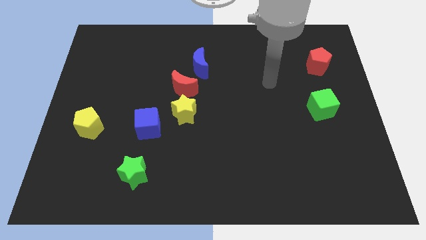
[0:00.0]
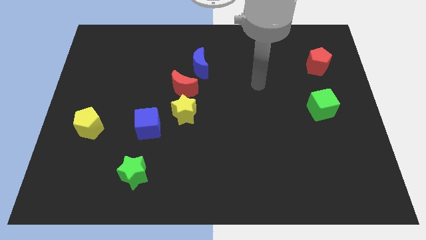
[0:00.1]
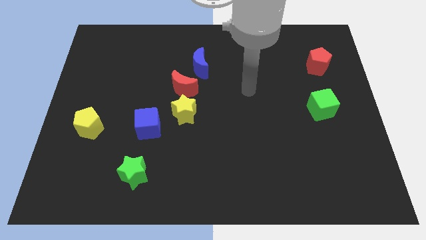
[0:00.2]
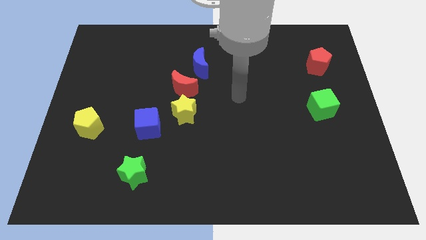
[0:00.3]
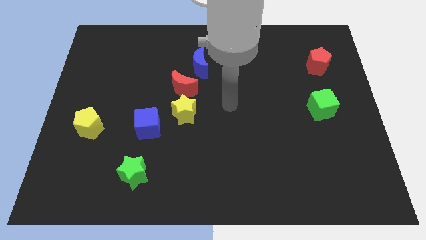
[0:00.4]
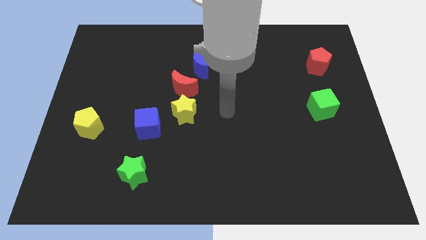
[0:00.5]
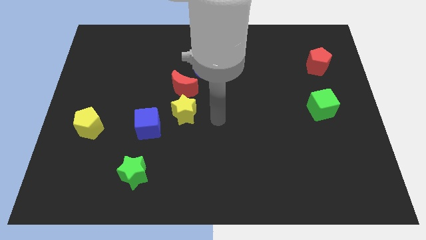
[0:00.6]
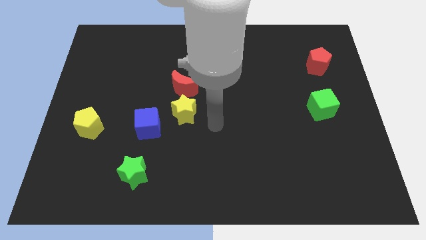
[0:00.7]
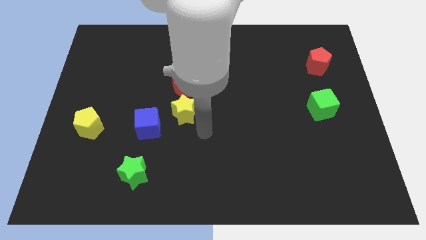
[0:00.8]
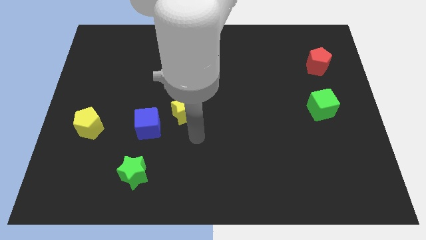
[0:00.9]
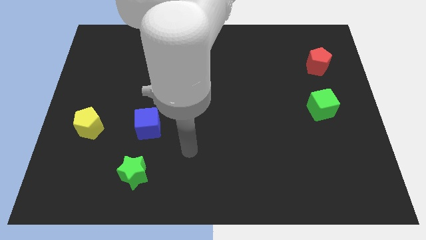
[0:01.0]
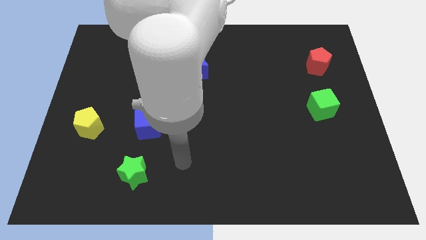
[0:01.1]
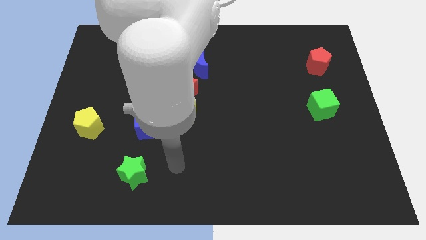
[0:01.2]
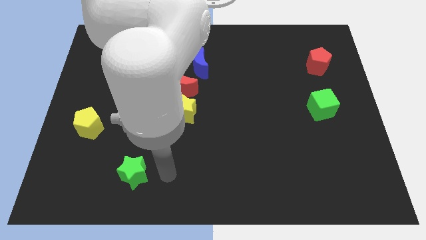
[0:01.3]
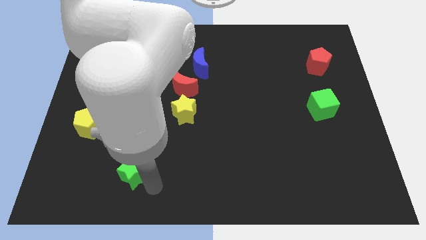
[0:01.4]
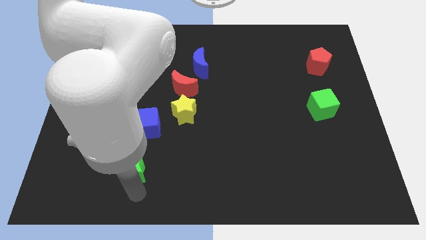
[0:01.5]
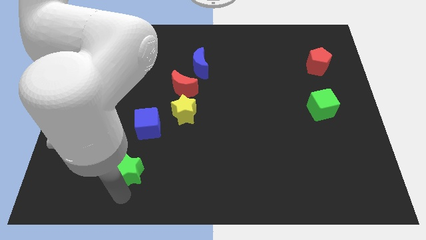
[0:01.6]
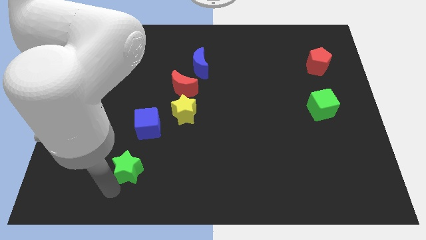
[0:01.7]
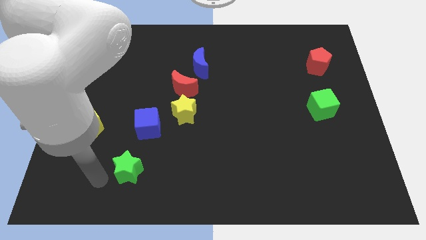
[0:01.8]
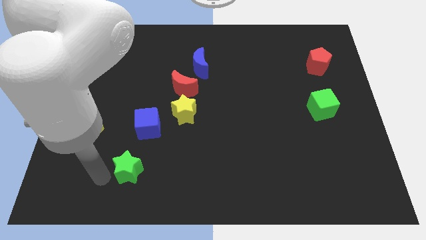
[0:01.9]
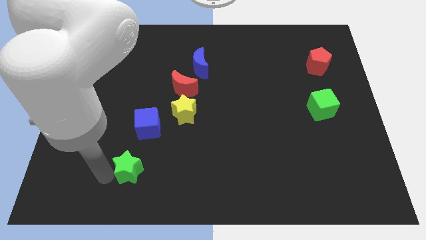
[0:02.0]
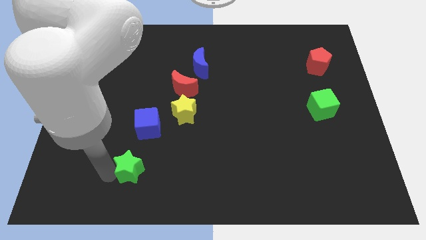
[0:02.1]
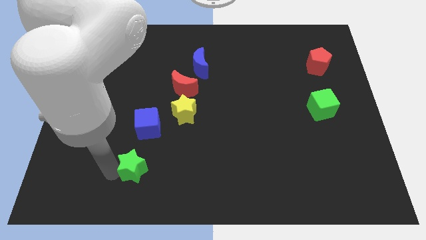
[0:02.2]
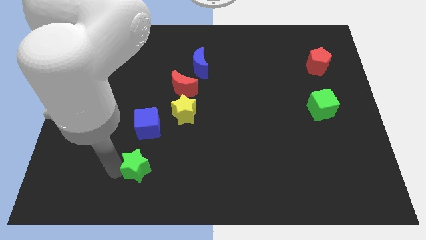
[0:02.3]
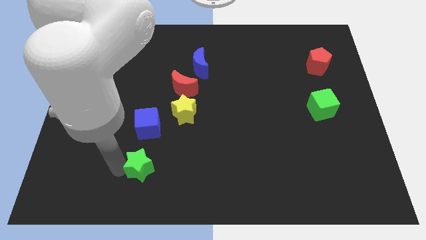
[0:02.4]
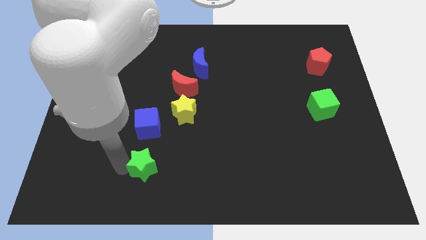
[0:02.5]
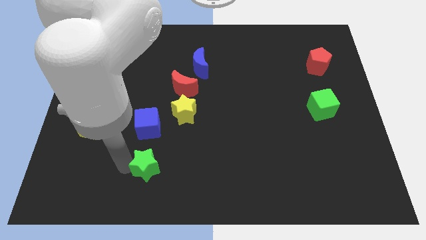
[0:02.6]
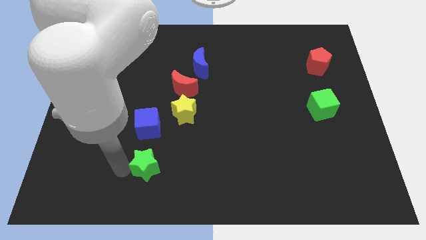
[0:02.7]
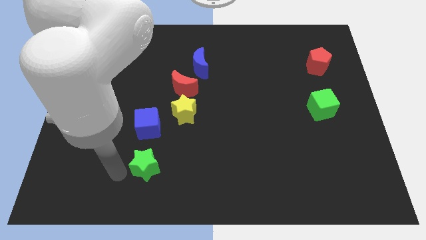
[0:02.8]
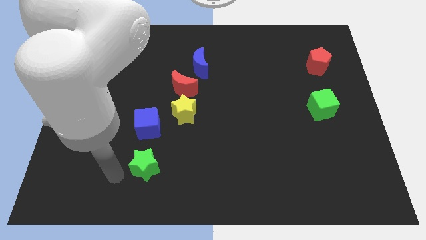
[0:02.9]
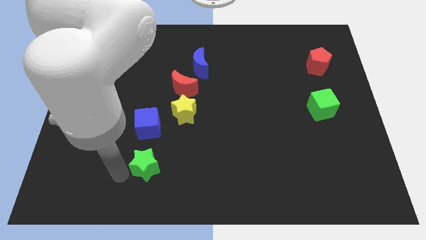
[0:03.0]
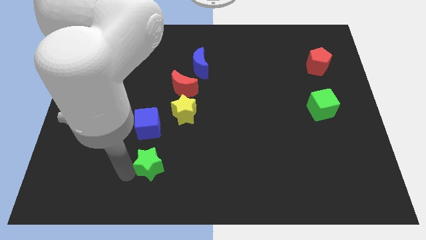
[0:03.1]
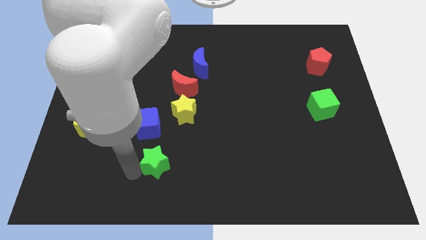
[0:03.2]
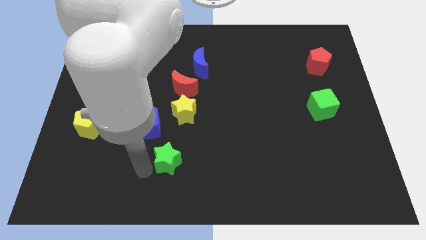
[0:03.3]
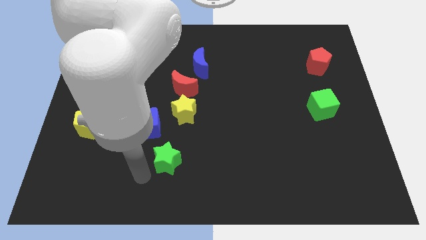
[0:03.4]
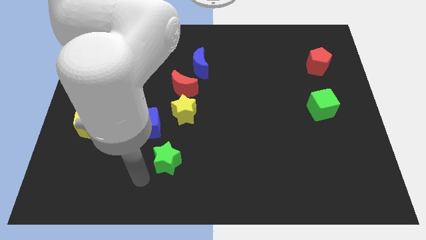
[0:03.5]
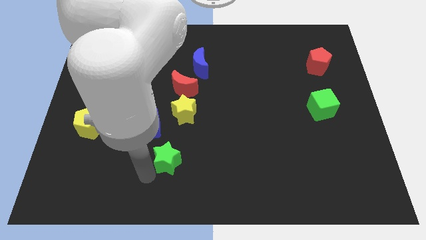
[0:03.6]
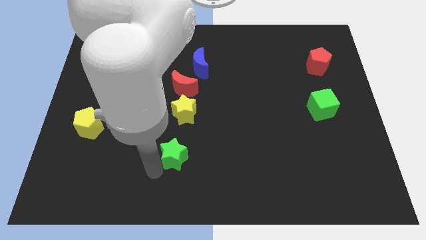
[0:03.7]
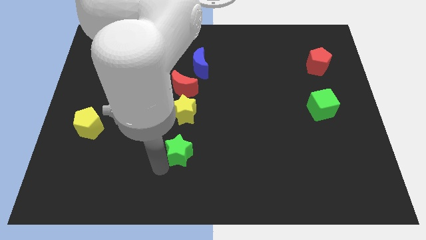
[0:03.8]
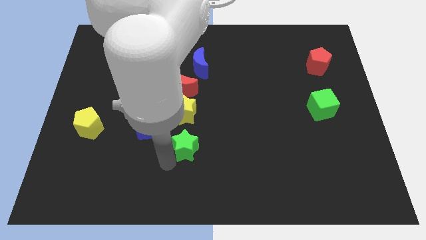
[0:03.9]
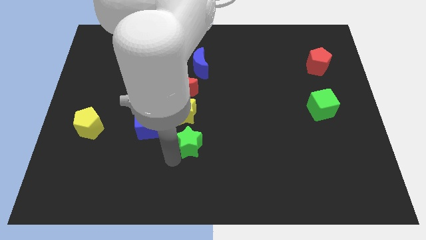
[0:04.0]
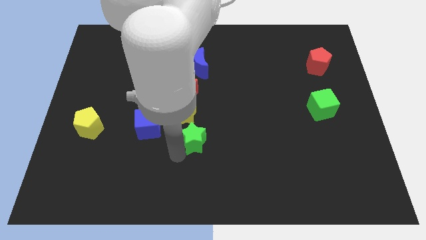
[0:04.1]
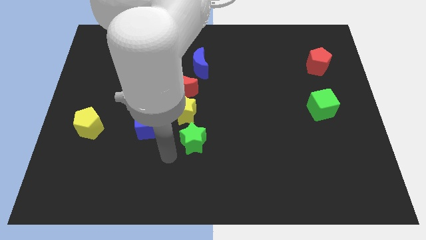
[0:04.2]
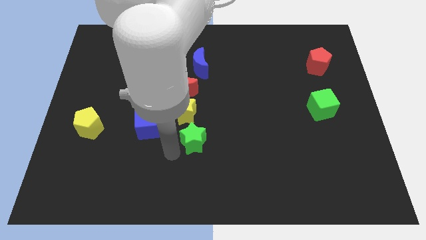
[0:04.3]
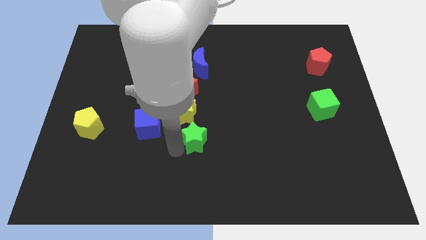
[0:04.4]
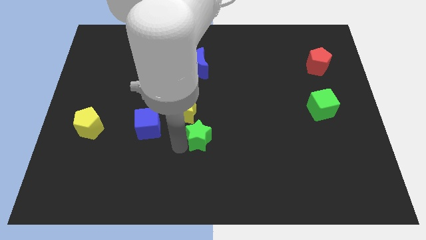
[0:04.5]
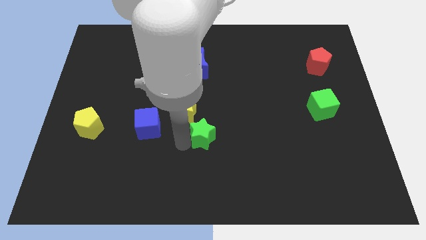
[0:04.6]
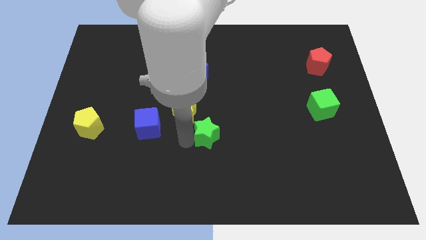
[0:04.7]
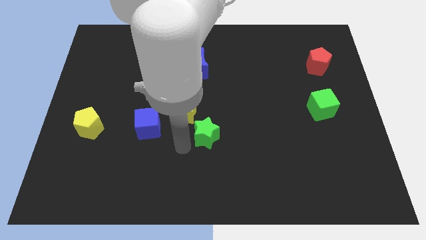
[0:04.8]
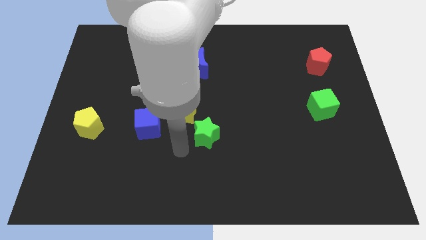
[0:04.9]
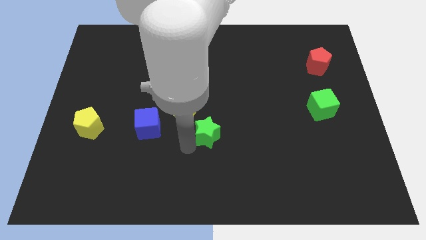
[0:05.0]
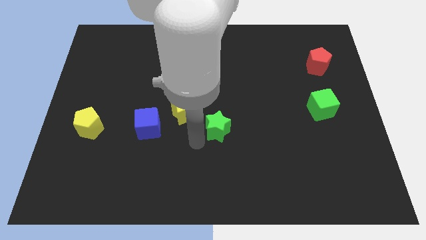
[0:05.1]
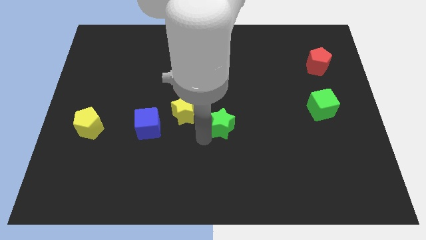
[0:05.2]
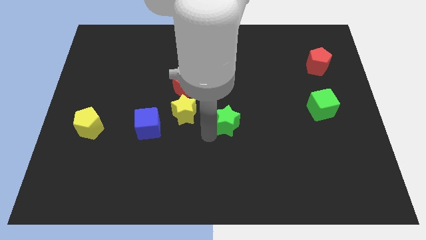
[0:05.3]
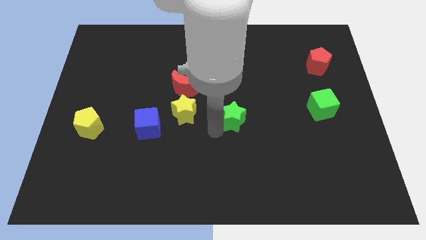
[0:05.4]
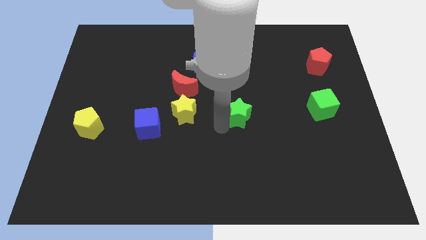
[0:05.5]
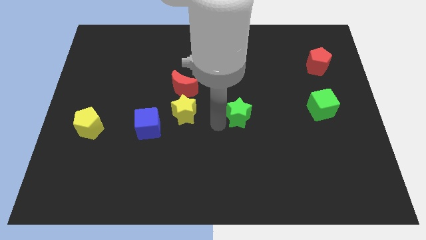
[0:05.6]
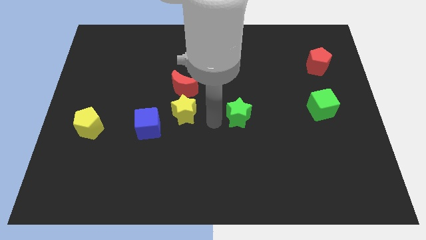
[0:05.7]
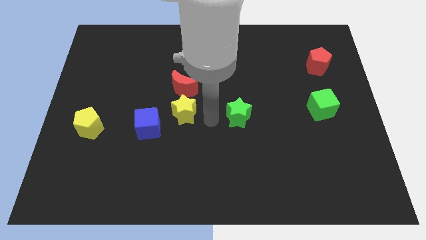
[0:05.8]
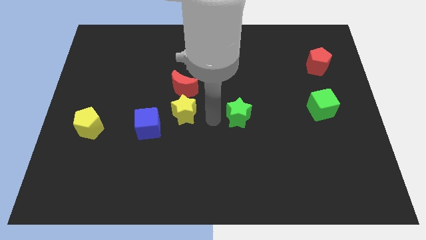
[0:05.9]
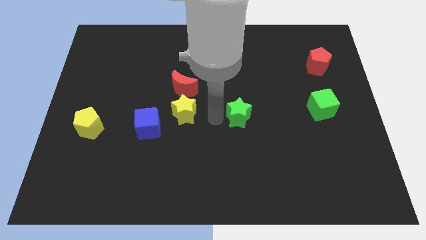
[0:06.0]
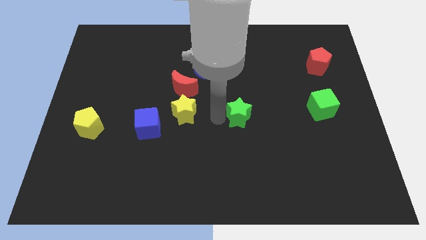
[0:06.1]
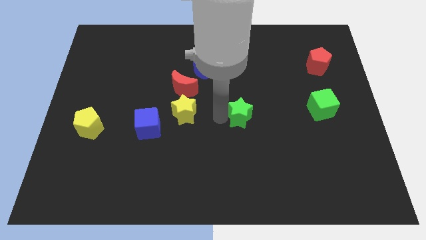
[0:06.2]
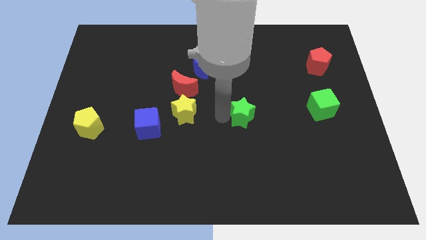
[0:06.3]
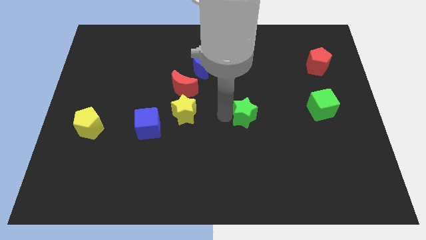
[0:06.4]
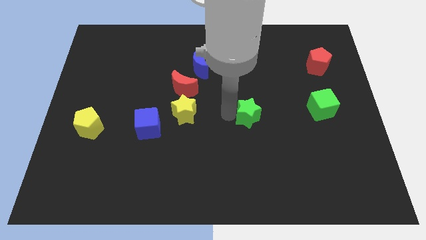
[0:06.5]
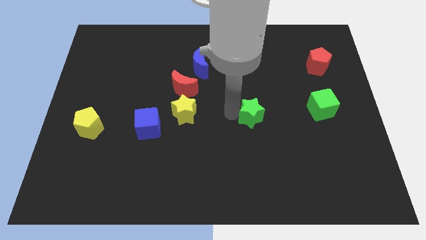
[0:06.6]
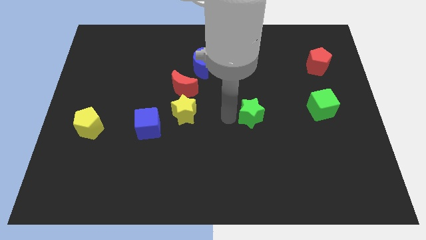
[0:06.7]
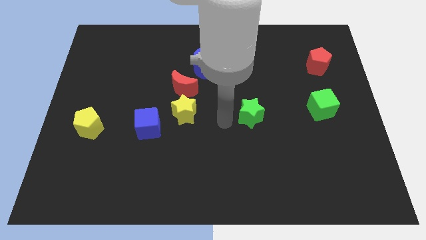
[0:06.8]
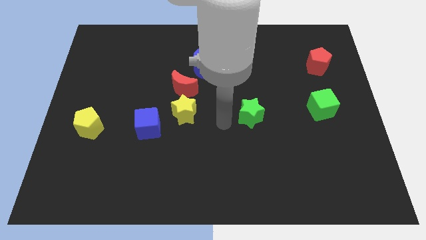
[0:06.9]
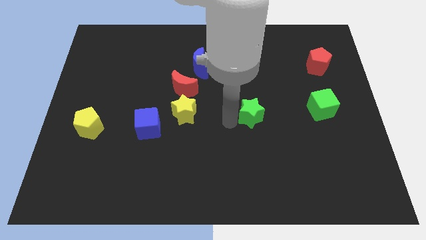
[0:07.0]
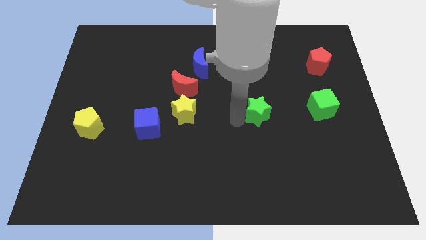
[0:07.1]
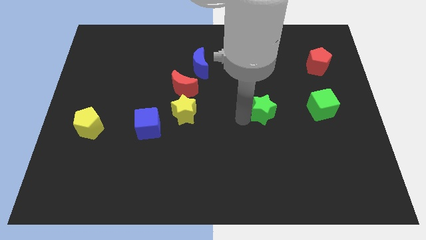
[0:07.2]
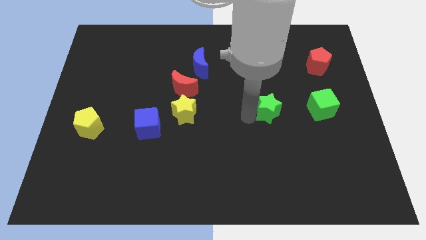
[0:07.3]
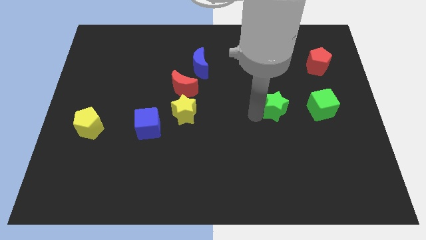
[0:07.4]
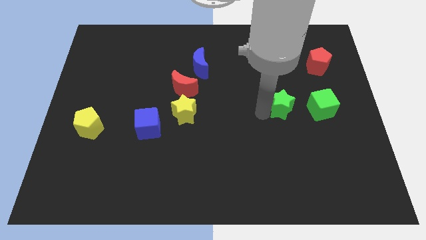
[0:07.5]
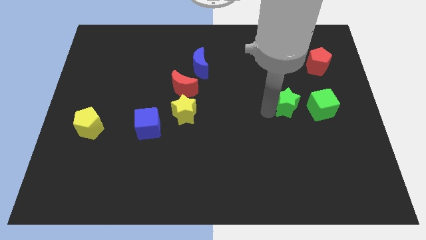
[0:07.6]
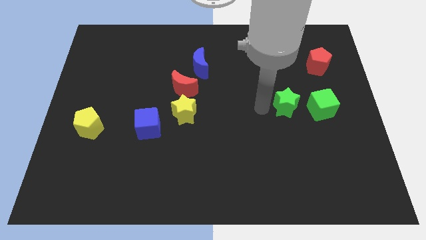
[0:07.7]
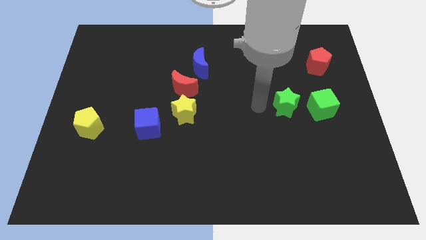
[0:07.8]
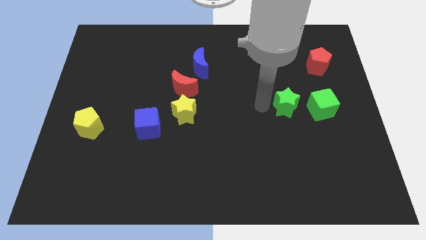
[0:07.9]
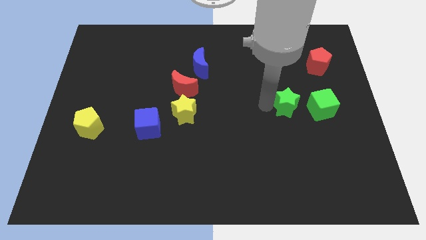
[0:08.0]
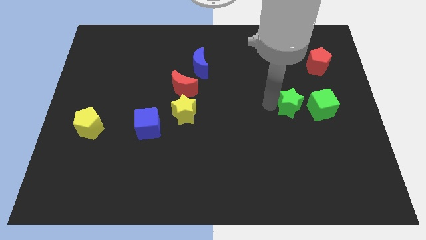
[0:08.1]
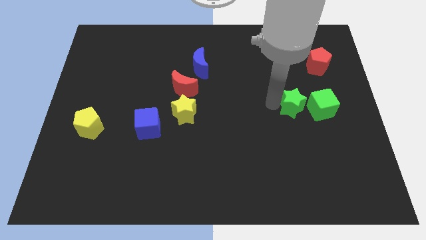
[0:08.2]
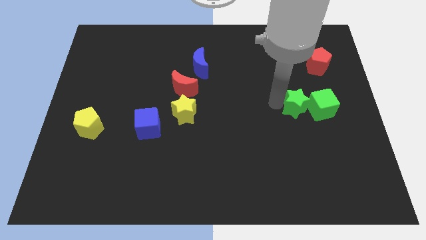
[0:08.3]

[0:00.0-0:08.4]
slide the green star towards the green cube
